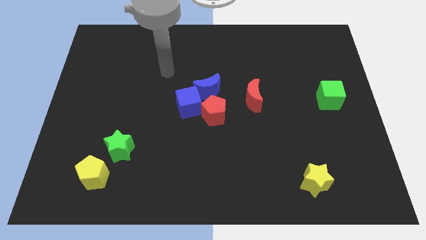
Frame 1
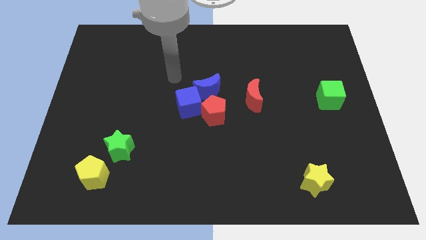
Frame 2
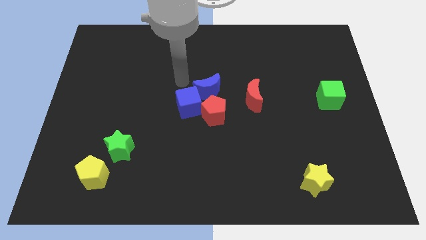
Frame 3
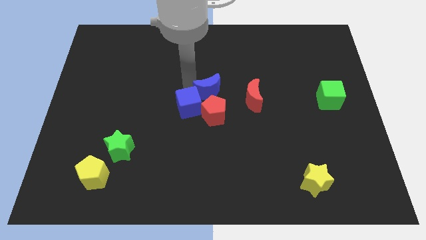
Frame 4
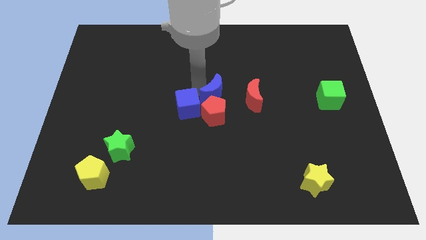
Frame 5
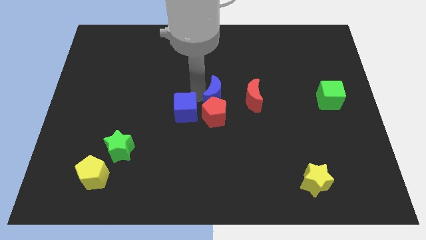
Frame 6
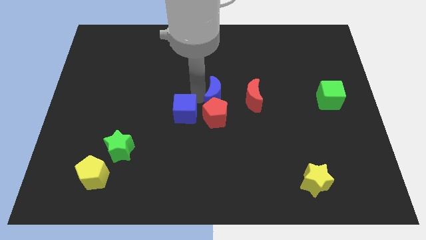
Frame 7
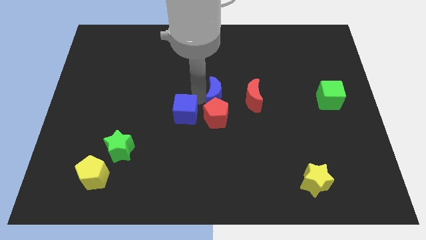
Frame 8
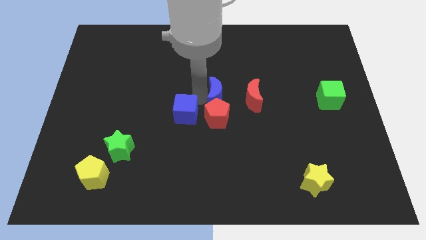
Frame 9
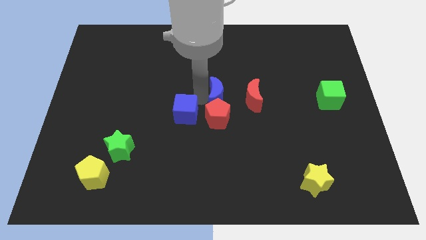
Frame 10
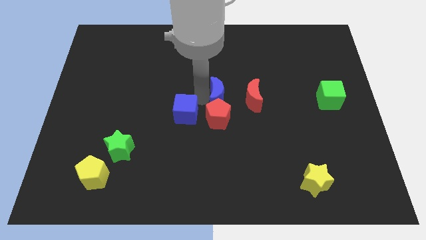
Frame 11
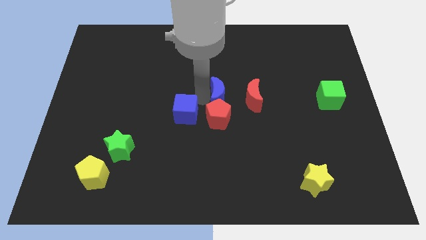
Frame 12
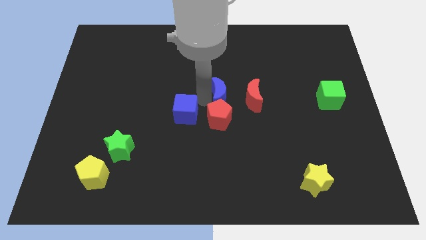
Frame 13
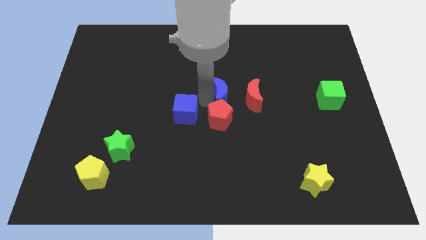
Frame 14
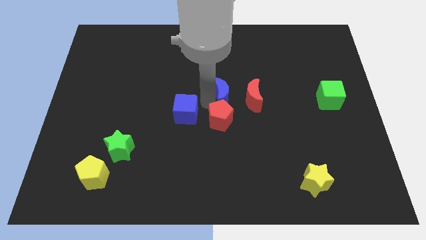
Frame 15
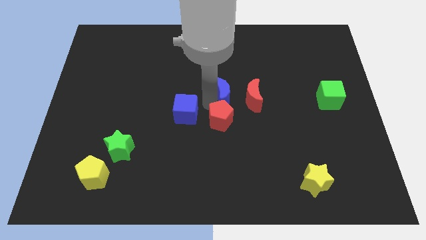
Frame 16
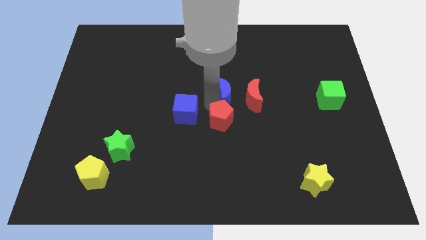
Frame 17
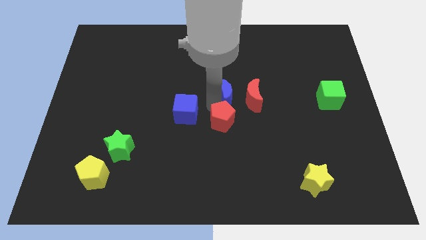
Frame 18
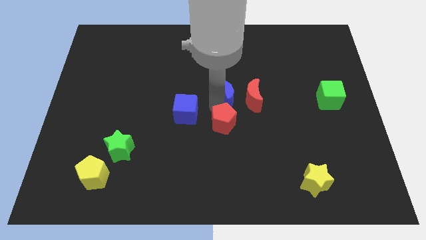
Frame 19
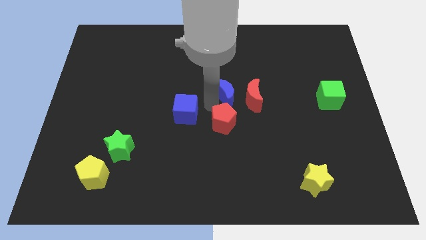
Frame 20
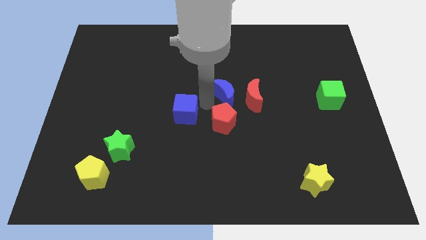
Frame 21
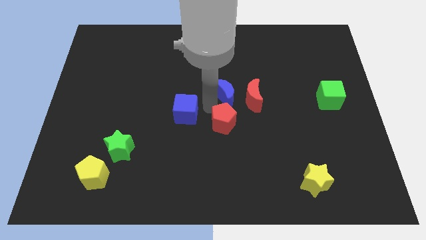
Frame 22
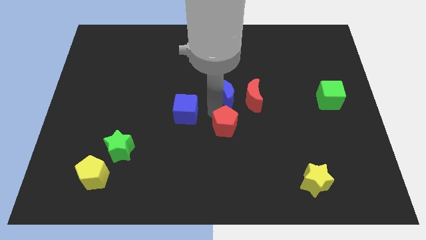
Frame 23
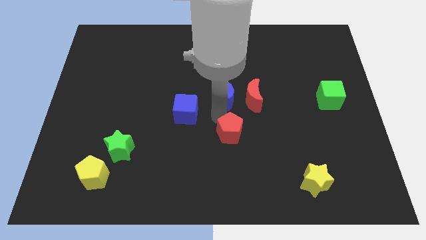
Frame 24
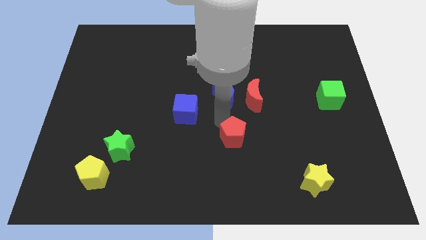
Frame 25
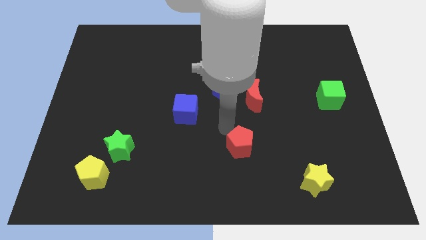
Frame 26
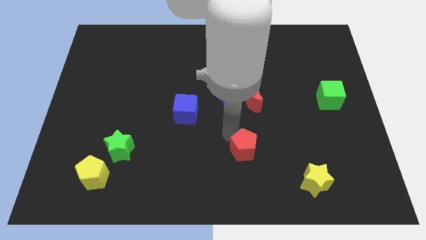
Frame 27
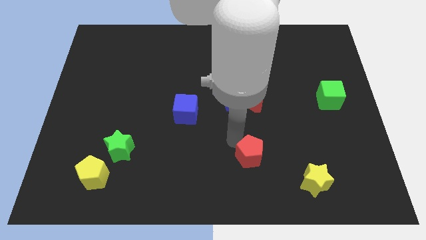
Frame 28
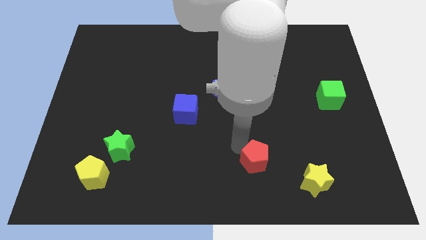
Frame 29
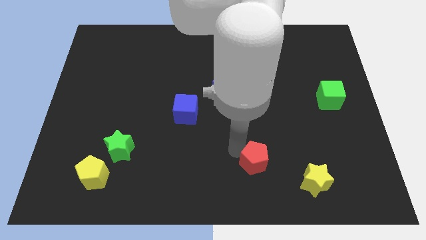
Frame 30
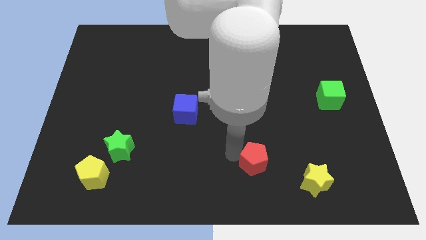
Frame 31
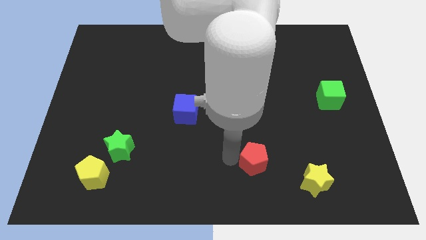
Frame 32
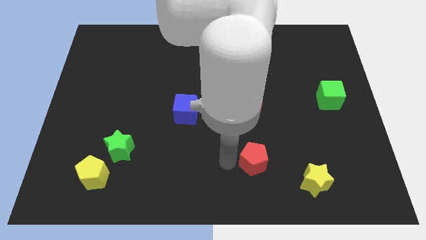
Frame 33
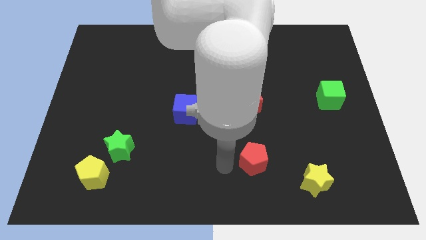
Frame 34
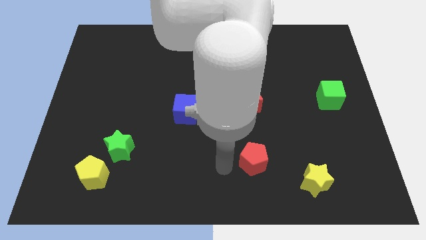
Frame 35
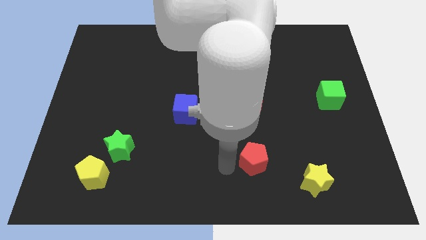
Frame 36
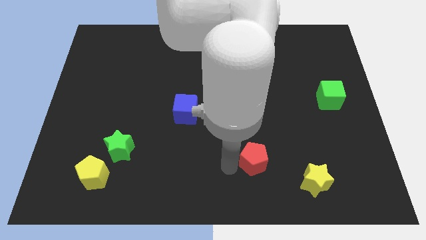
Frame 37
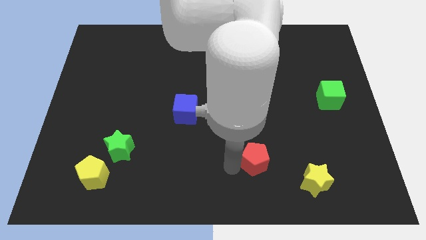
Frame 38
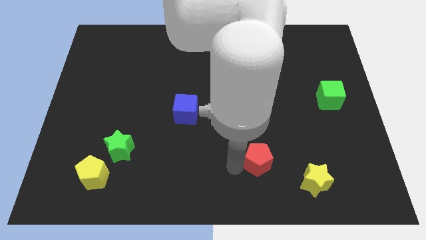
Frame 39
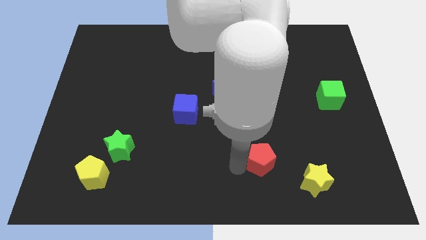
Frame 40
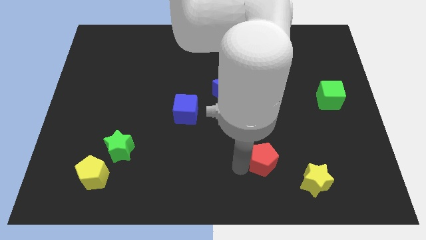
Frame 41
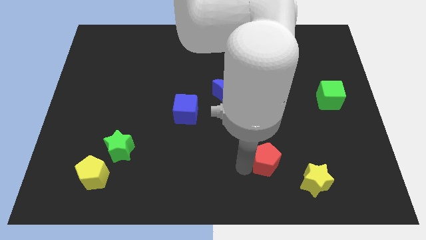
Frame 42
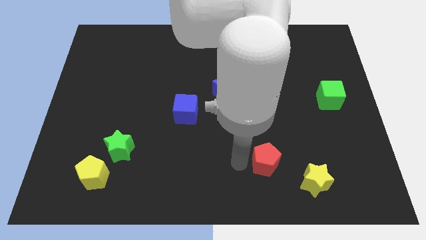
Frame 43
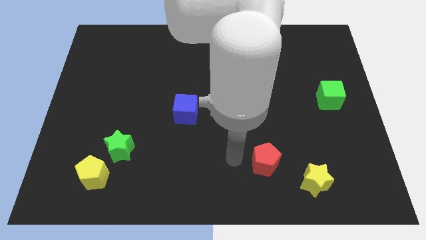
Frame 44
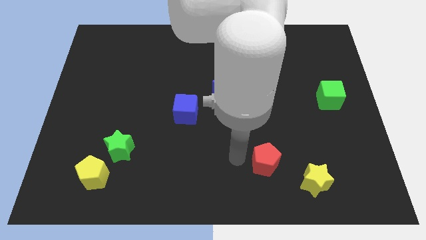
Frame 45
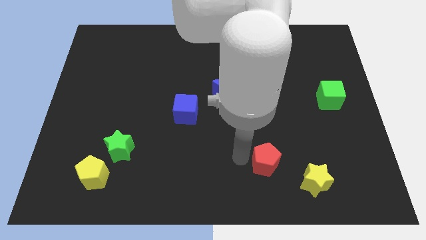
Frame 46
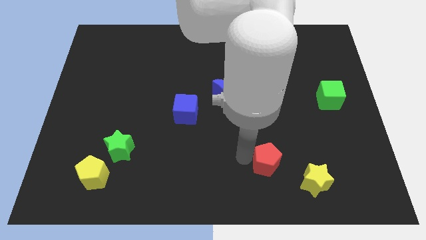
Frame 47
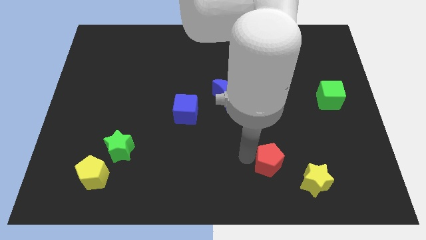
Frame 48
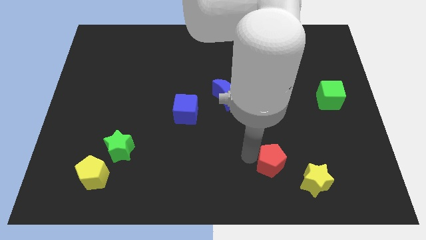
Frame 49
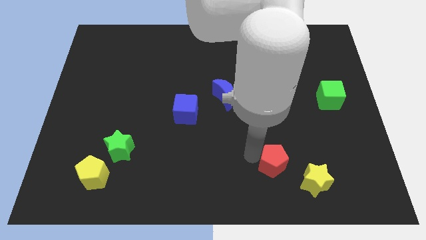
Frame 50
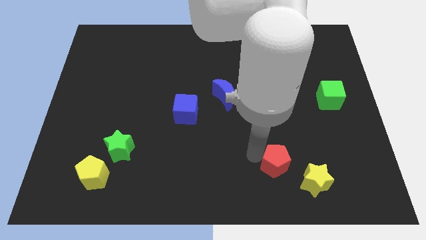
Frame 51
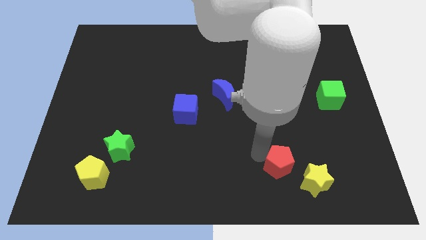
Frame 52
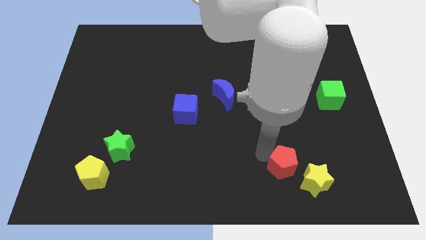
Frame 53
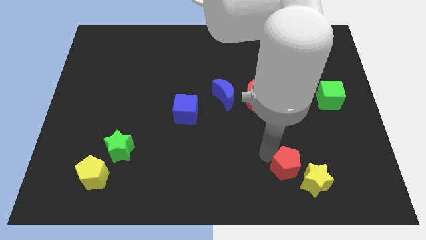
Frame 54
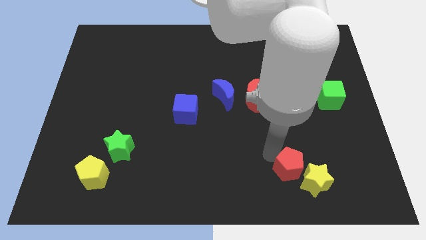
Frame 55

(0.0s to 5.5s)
put the red pentagon next to the yellow star

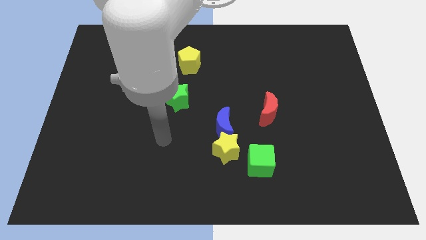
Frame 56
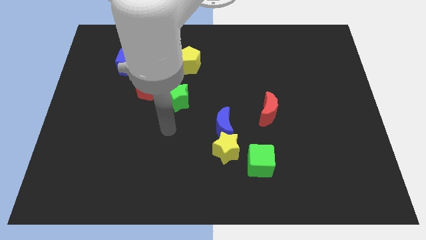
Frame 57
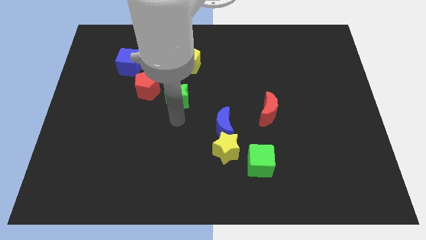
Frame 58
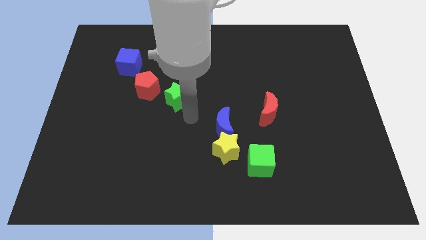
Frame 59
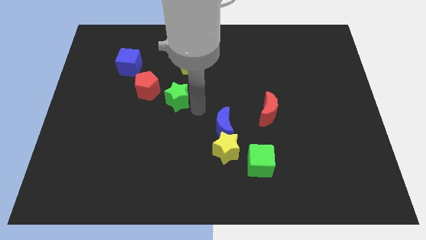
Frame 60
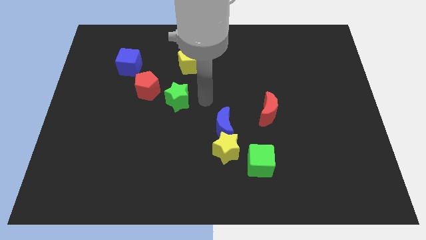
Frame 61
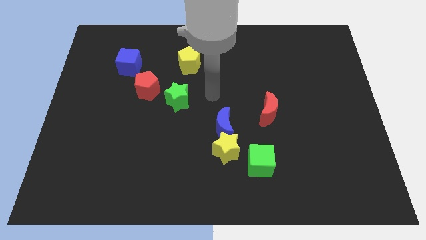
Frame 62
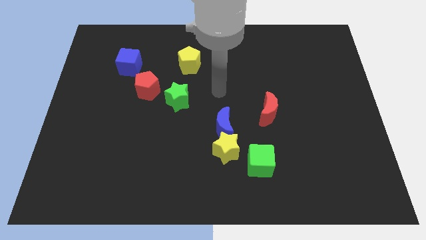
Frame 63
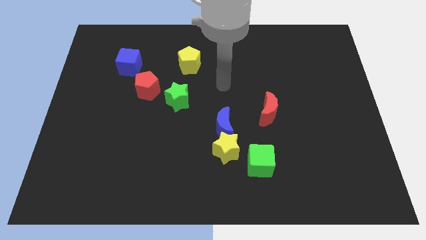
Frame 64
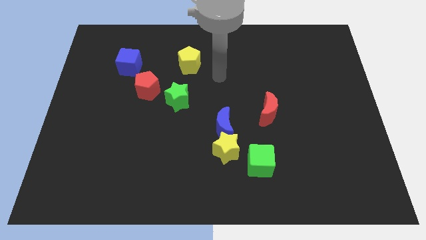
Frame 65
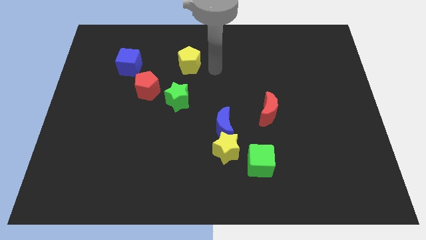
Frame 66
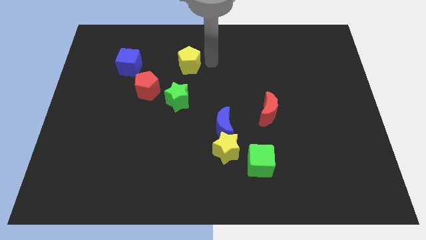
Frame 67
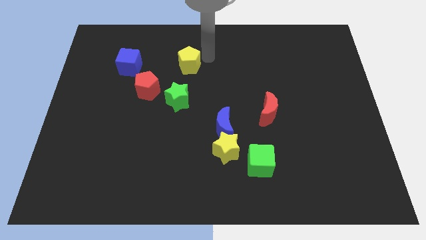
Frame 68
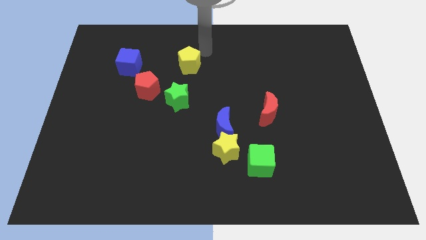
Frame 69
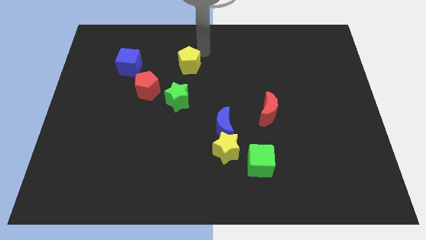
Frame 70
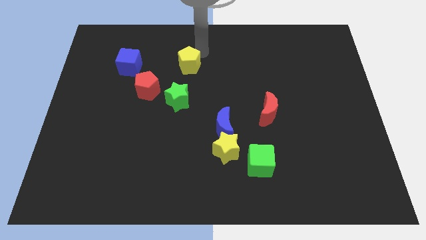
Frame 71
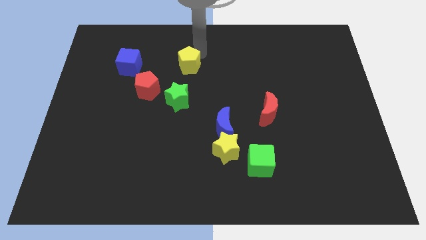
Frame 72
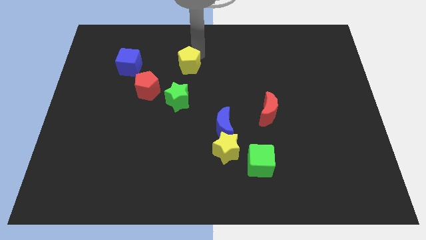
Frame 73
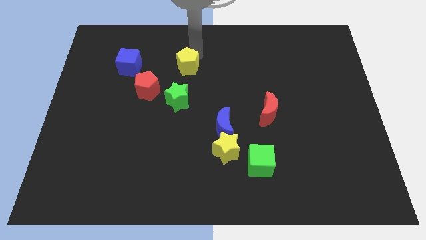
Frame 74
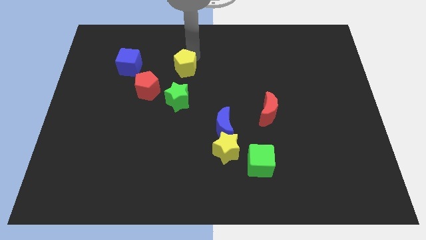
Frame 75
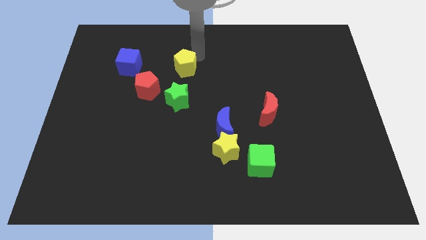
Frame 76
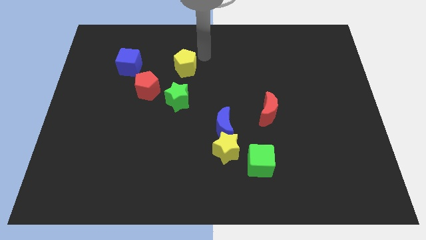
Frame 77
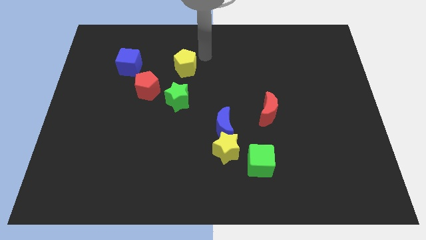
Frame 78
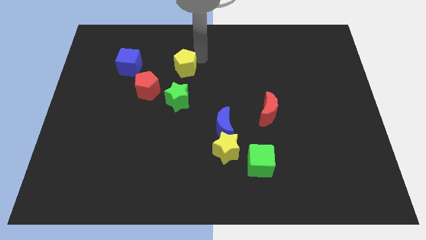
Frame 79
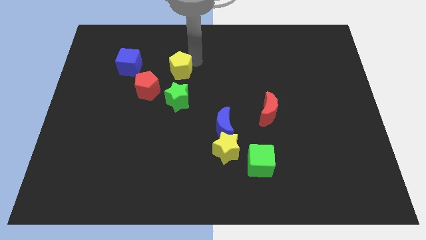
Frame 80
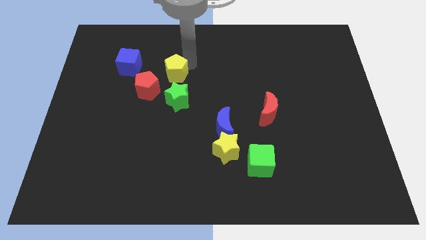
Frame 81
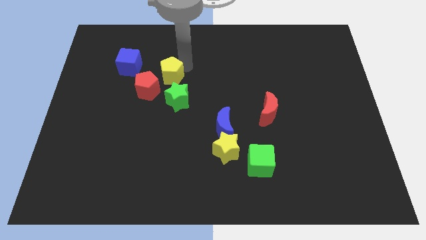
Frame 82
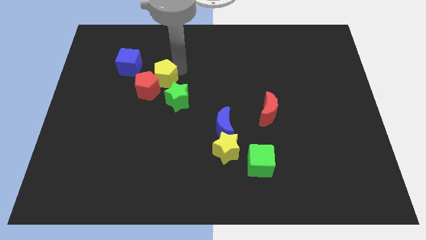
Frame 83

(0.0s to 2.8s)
slide the yellow pentagon close to the red pentagon
